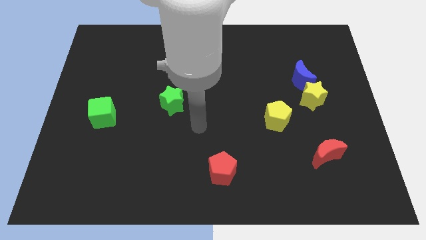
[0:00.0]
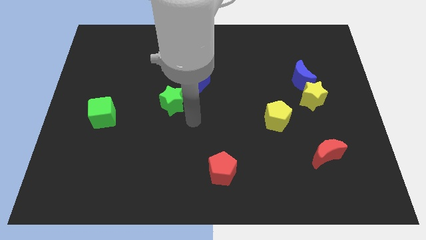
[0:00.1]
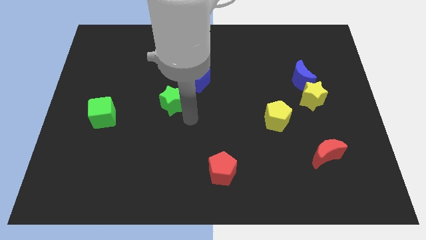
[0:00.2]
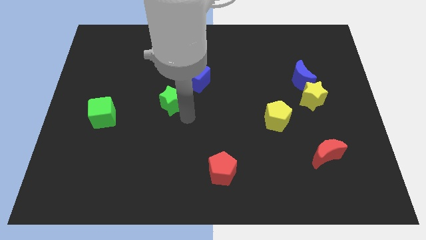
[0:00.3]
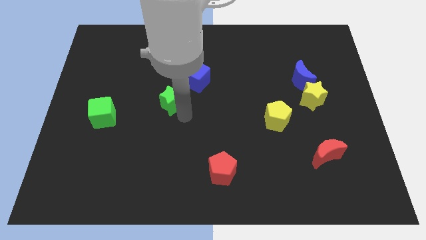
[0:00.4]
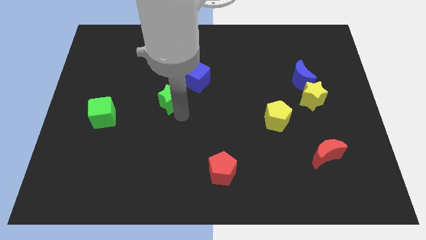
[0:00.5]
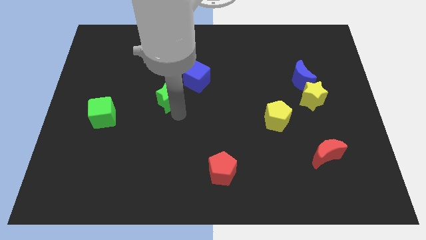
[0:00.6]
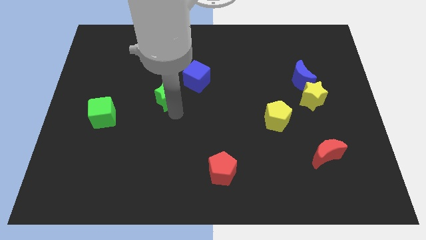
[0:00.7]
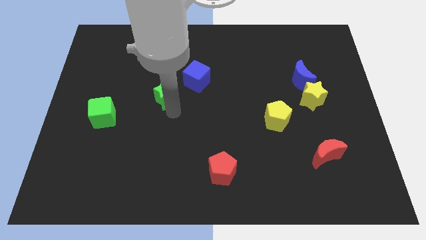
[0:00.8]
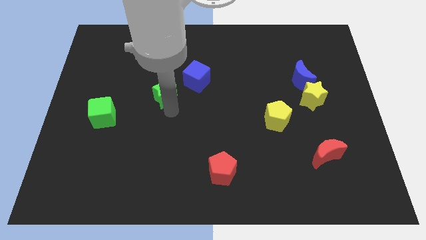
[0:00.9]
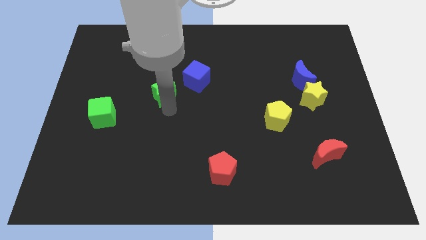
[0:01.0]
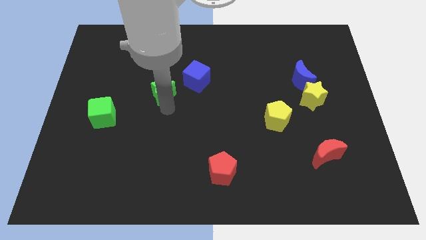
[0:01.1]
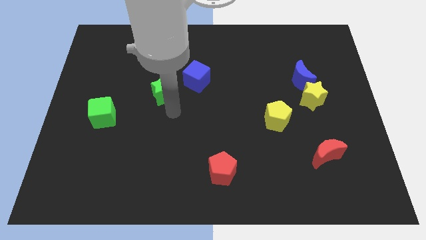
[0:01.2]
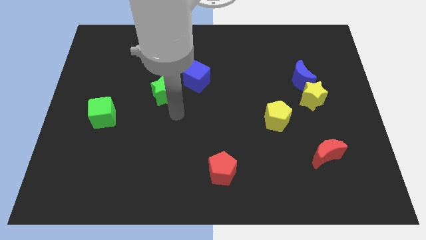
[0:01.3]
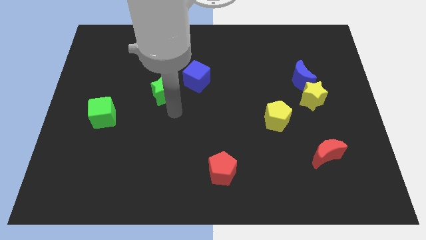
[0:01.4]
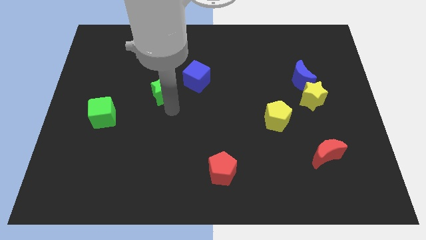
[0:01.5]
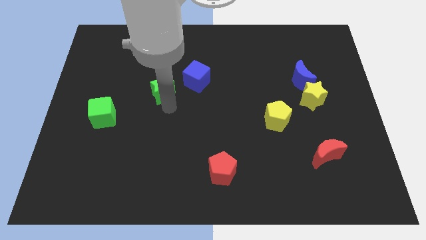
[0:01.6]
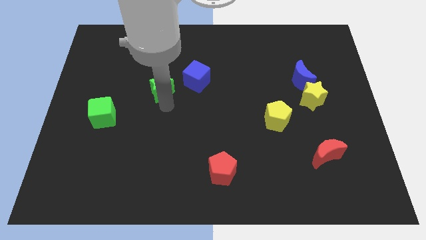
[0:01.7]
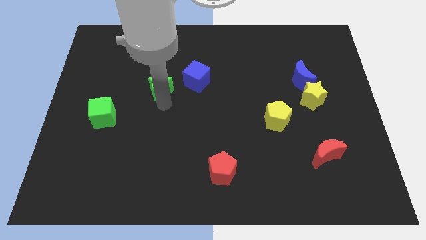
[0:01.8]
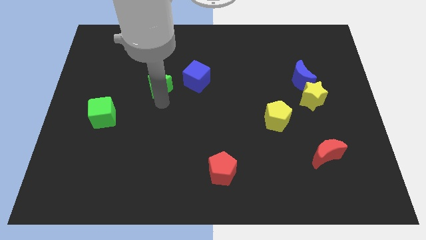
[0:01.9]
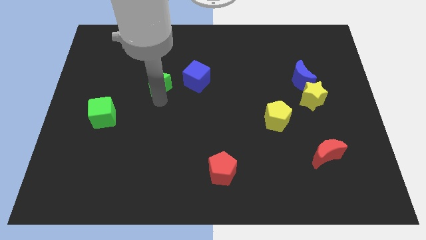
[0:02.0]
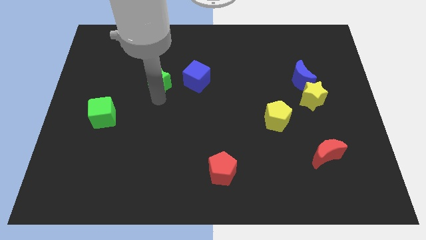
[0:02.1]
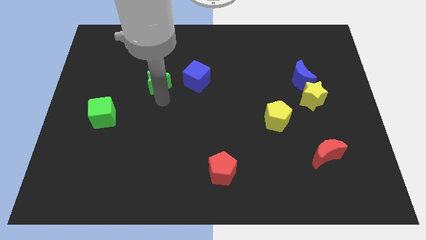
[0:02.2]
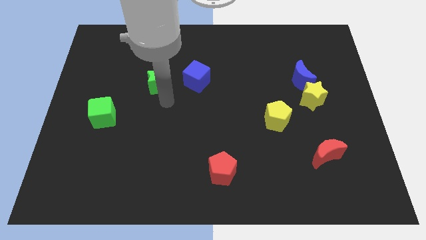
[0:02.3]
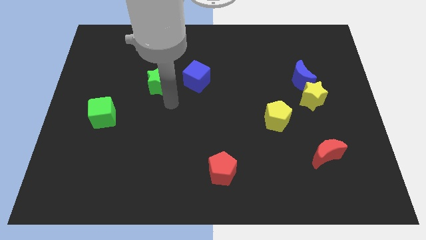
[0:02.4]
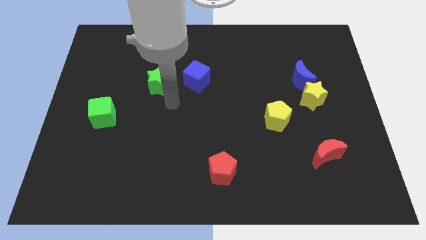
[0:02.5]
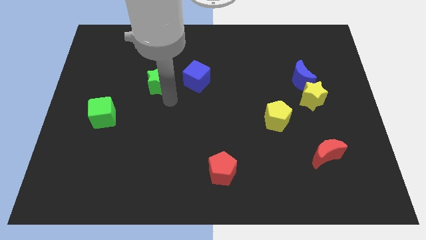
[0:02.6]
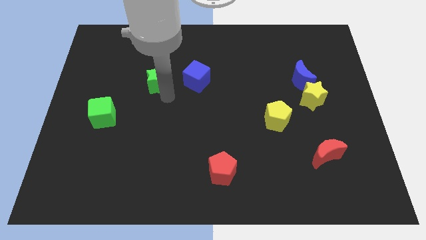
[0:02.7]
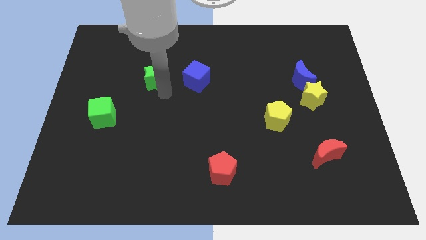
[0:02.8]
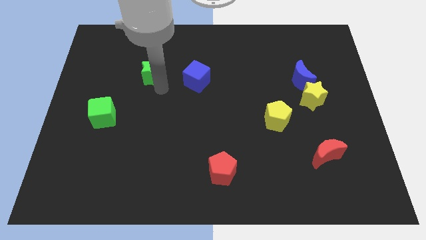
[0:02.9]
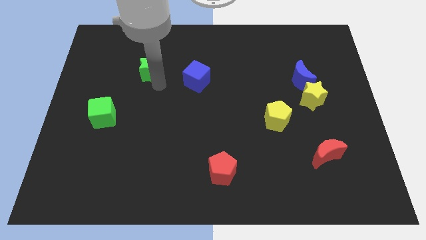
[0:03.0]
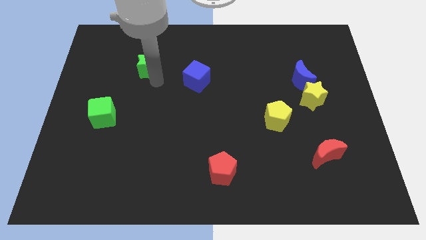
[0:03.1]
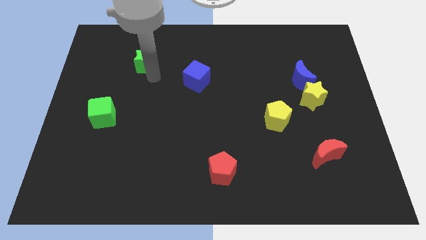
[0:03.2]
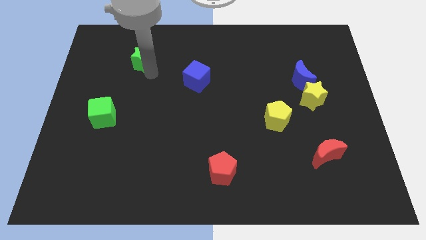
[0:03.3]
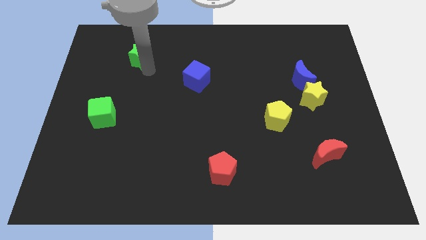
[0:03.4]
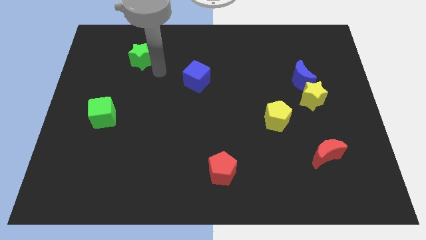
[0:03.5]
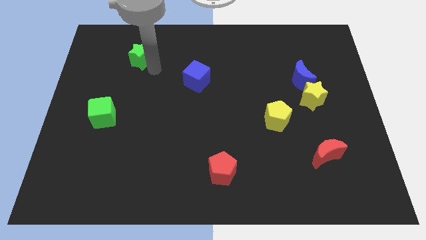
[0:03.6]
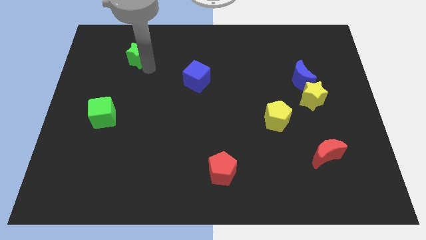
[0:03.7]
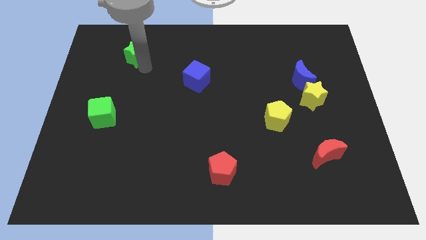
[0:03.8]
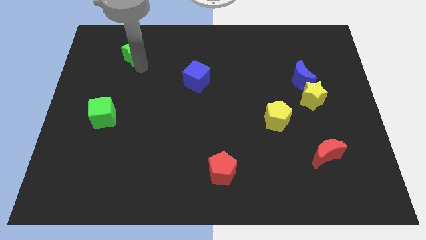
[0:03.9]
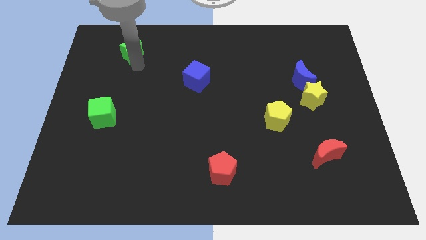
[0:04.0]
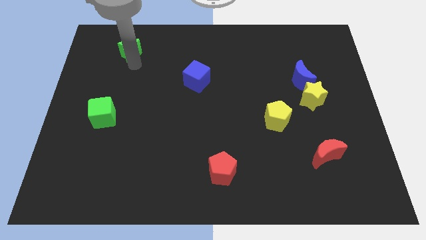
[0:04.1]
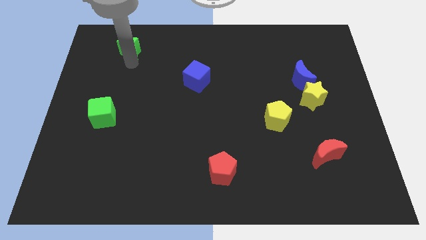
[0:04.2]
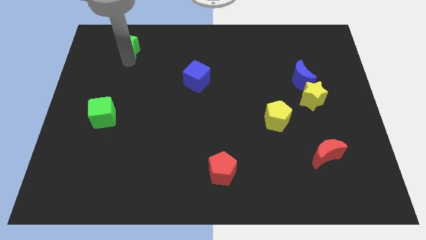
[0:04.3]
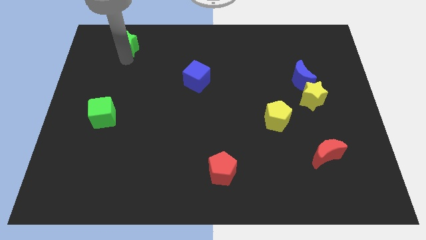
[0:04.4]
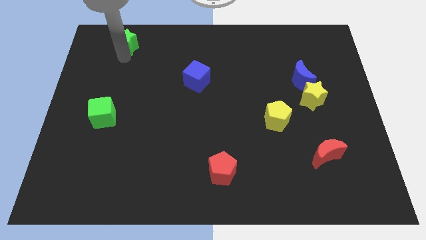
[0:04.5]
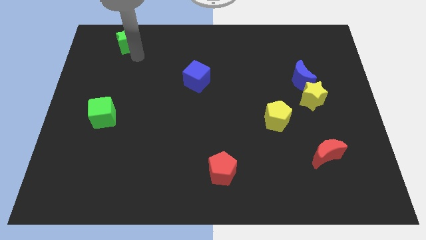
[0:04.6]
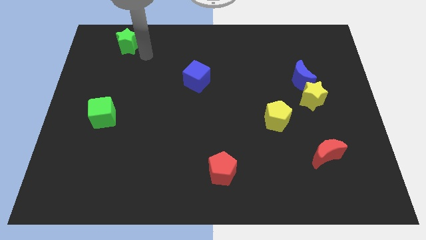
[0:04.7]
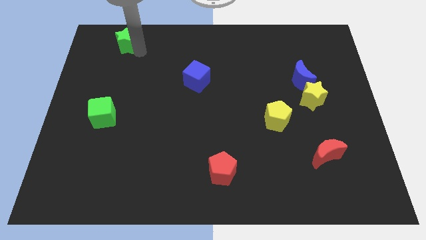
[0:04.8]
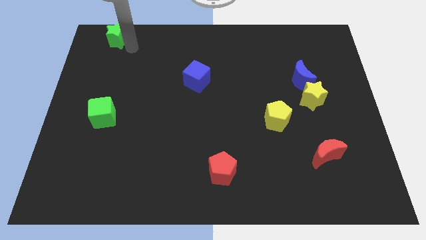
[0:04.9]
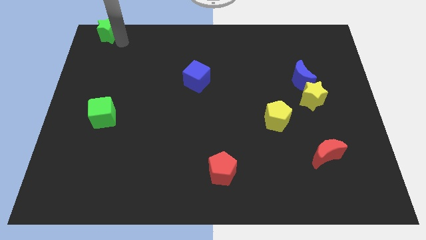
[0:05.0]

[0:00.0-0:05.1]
put the green star to the top left

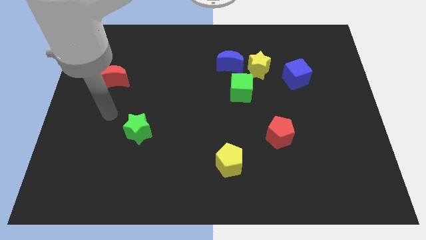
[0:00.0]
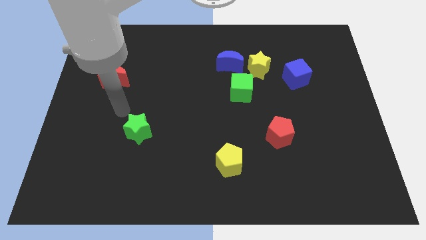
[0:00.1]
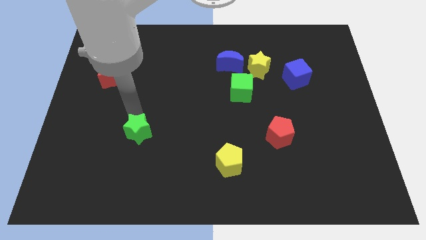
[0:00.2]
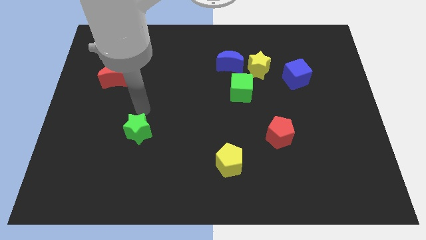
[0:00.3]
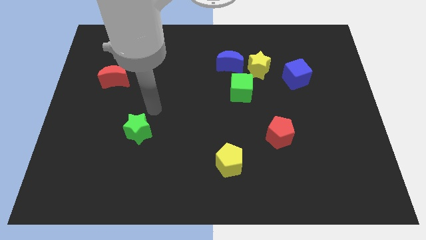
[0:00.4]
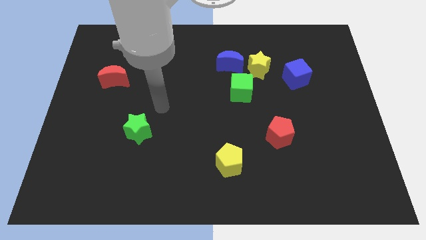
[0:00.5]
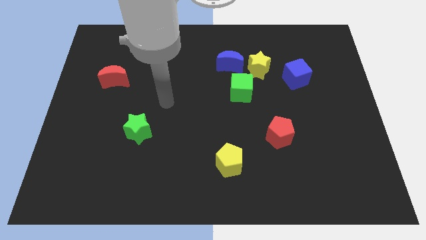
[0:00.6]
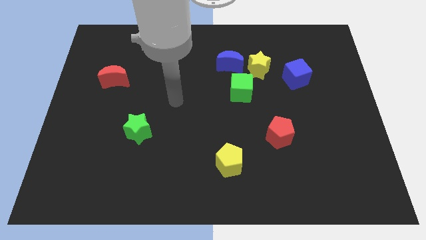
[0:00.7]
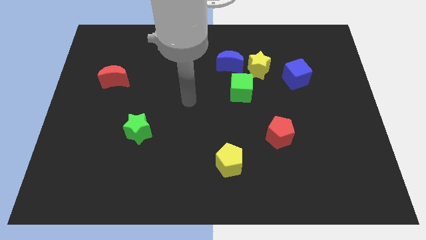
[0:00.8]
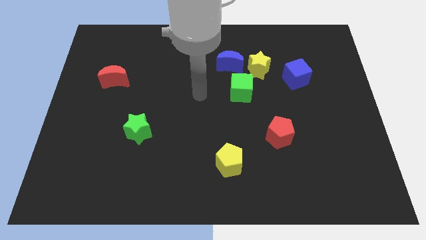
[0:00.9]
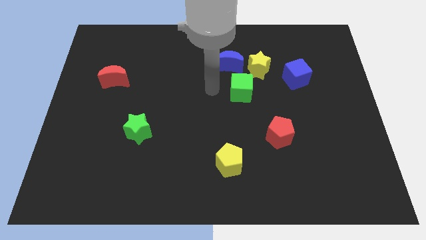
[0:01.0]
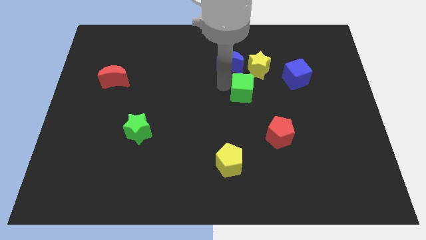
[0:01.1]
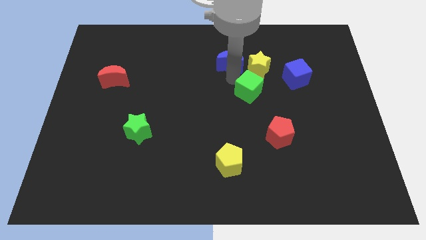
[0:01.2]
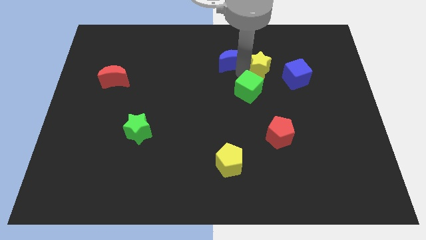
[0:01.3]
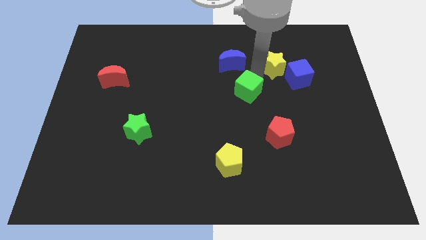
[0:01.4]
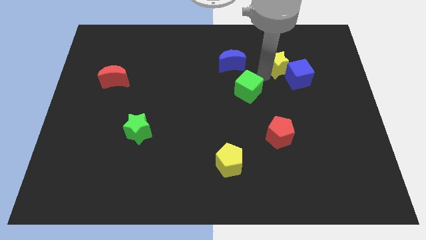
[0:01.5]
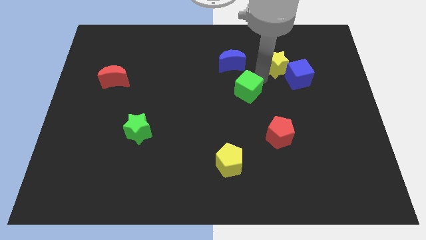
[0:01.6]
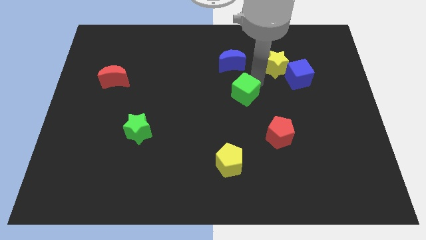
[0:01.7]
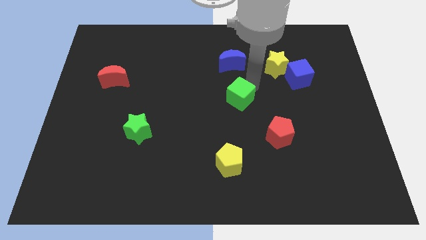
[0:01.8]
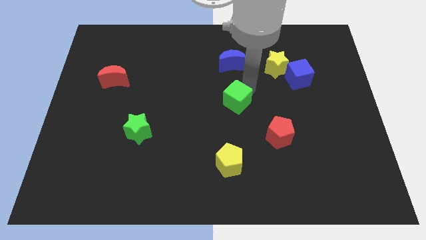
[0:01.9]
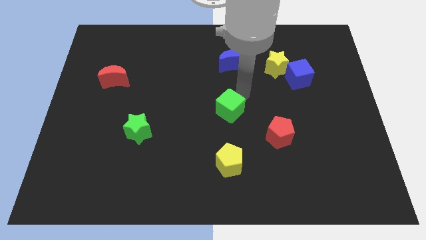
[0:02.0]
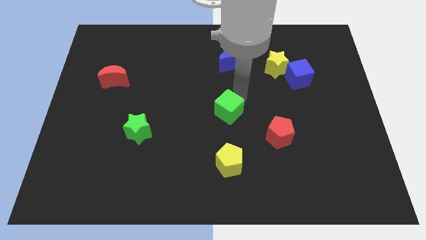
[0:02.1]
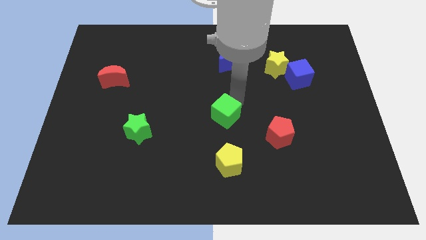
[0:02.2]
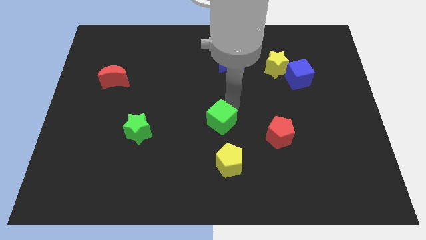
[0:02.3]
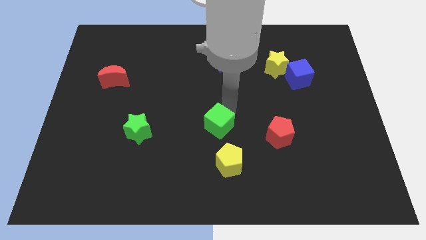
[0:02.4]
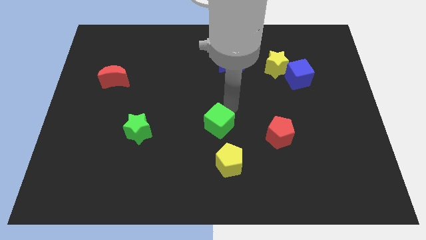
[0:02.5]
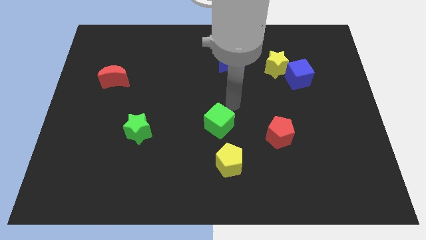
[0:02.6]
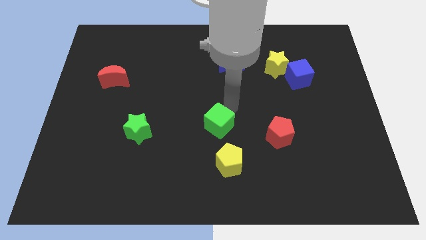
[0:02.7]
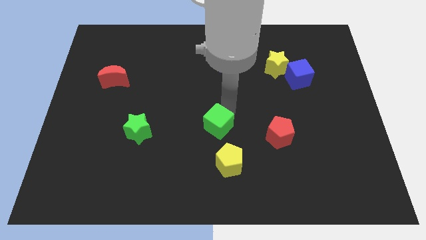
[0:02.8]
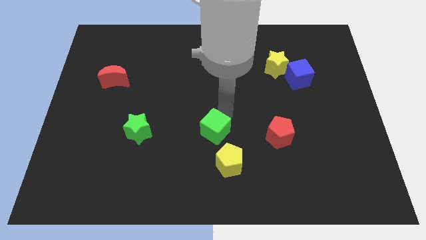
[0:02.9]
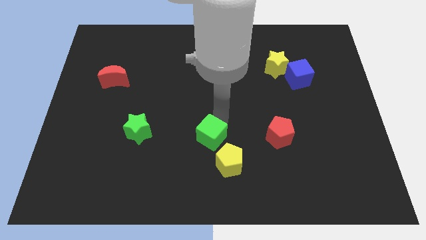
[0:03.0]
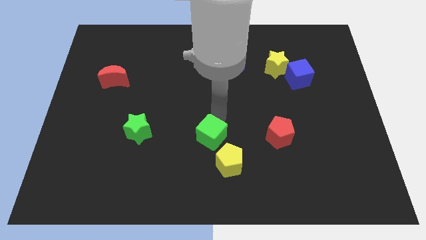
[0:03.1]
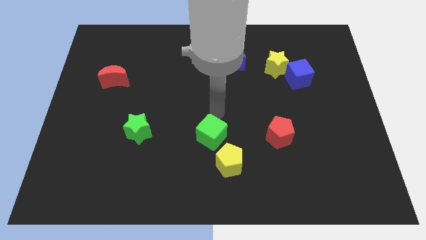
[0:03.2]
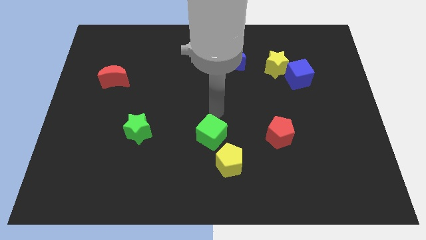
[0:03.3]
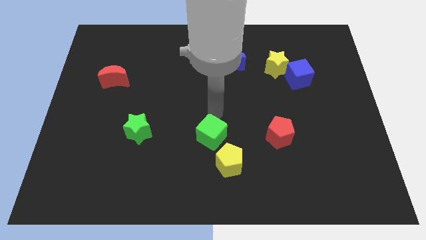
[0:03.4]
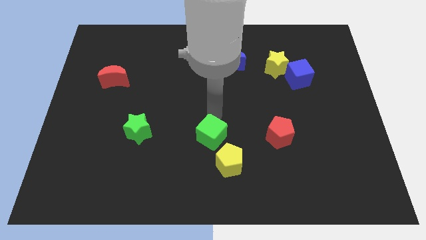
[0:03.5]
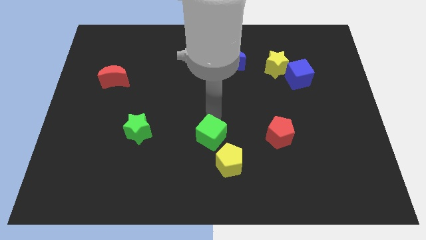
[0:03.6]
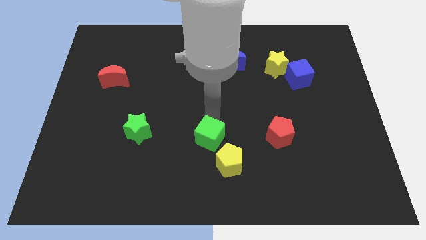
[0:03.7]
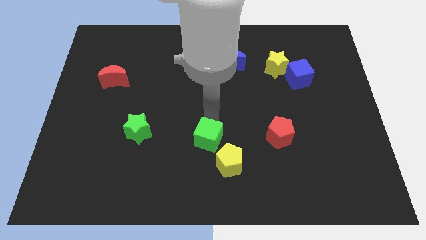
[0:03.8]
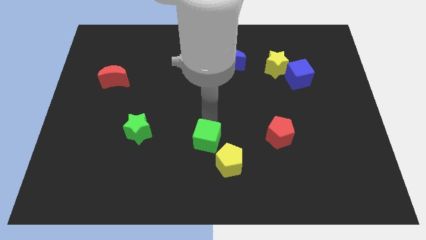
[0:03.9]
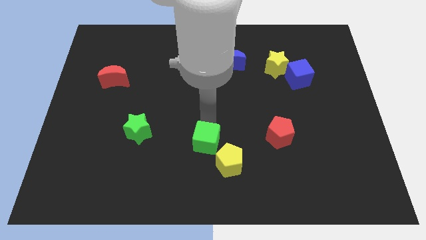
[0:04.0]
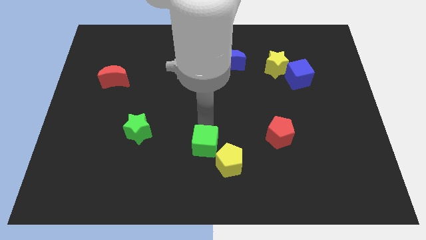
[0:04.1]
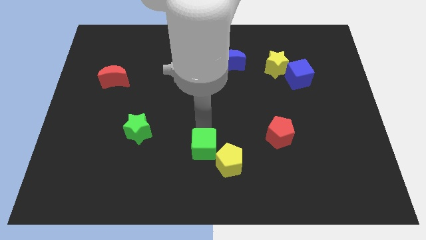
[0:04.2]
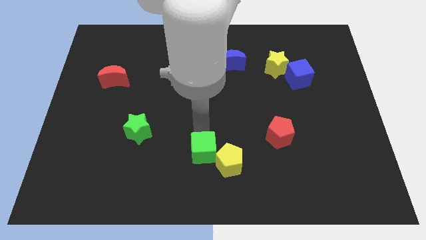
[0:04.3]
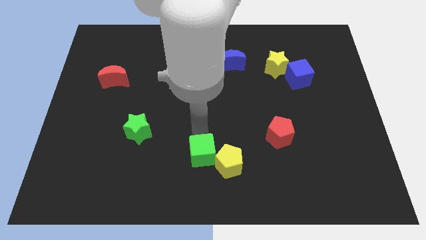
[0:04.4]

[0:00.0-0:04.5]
push the green cube to the bottom side
